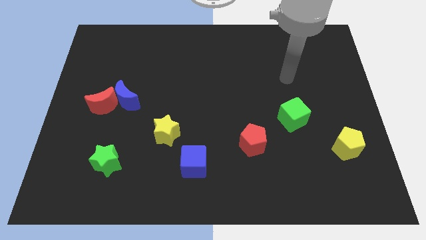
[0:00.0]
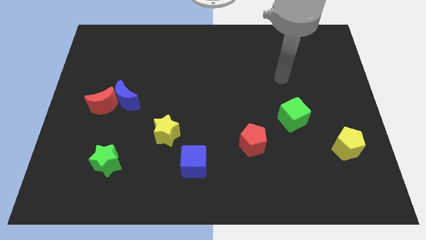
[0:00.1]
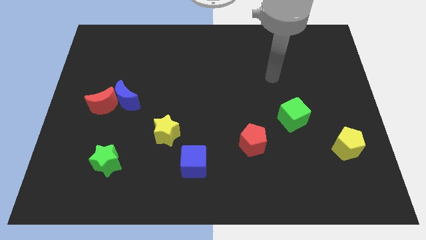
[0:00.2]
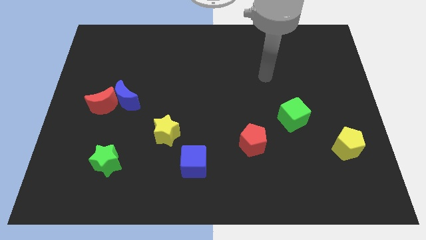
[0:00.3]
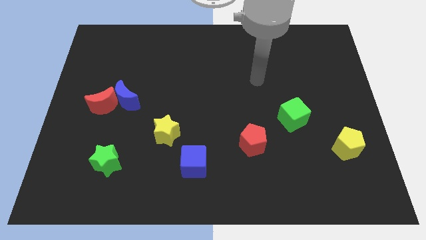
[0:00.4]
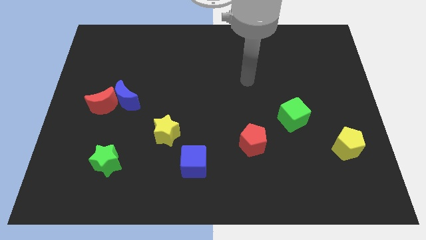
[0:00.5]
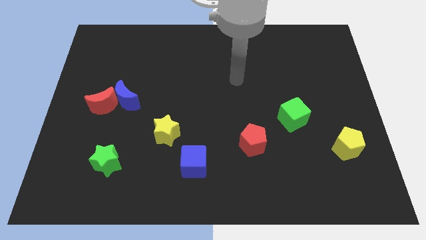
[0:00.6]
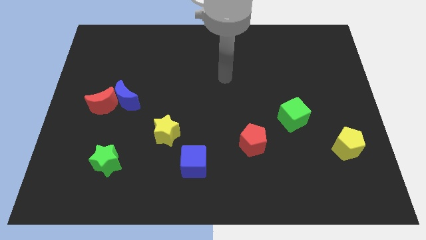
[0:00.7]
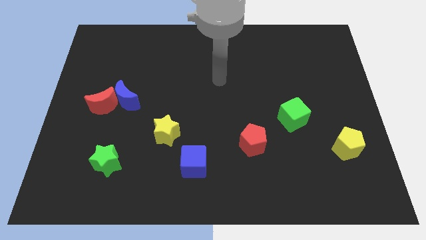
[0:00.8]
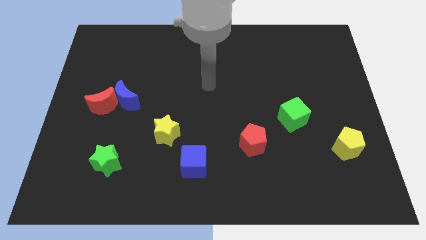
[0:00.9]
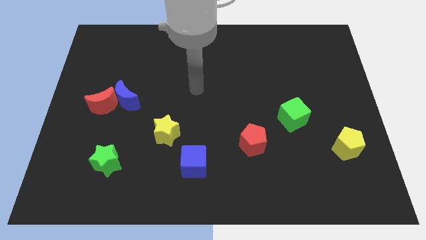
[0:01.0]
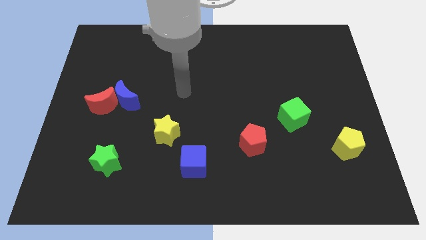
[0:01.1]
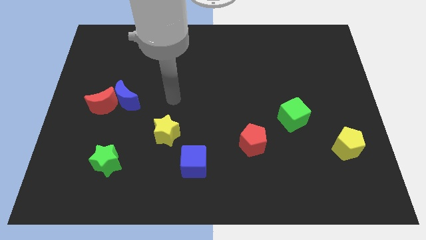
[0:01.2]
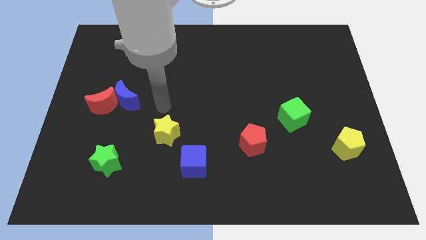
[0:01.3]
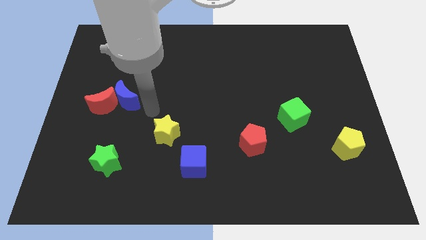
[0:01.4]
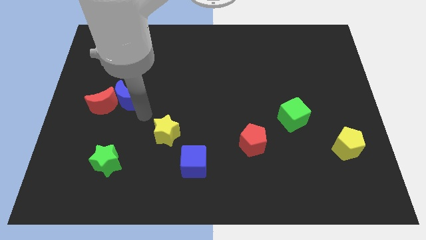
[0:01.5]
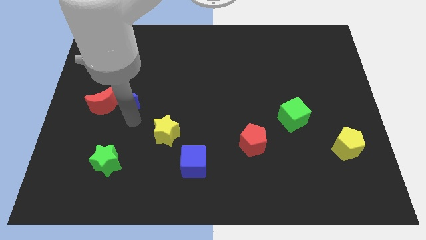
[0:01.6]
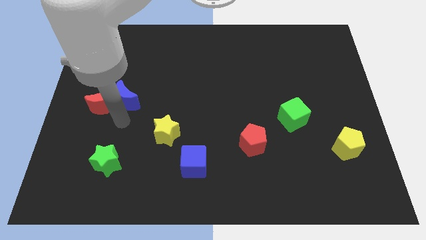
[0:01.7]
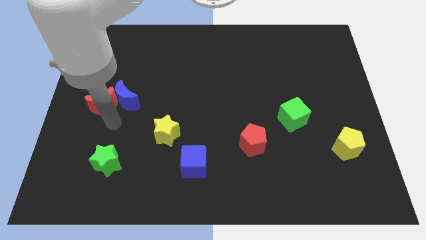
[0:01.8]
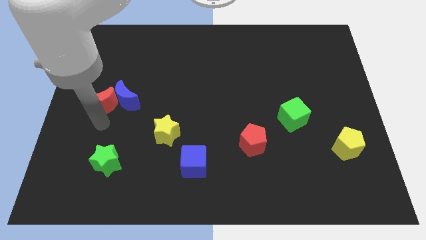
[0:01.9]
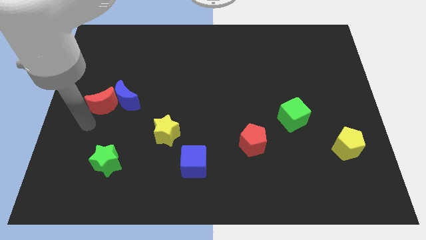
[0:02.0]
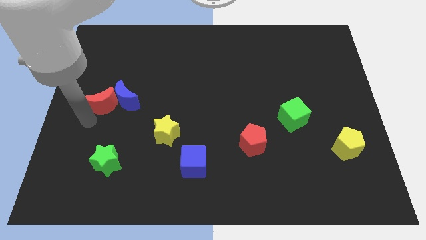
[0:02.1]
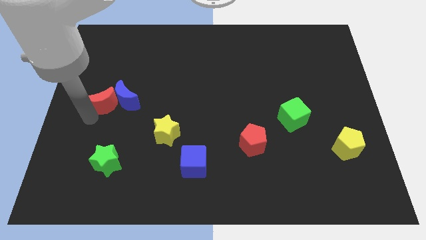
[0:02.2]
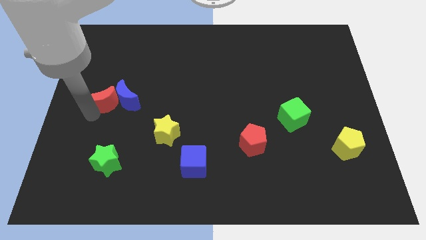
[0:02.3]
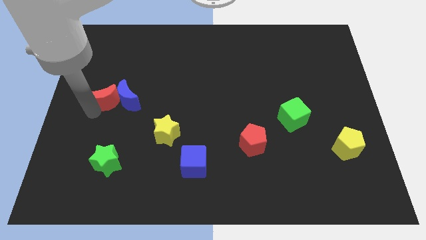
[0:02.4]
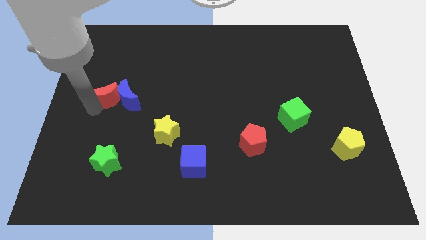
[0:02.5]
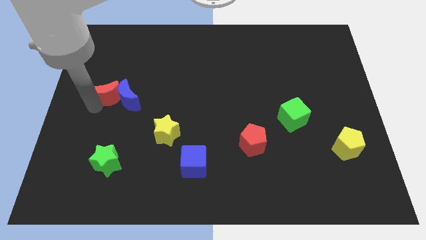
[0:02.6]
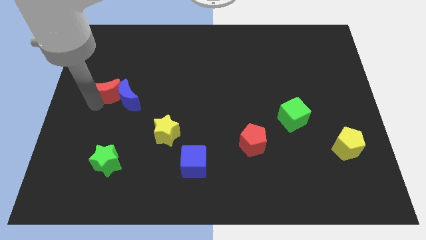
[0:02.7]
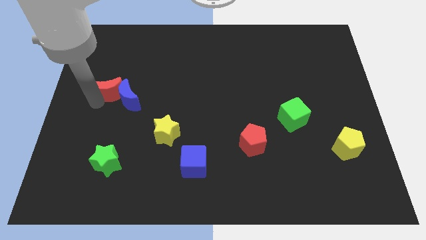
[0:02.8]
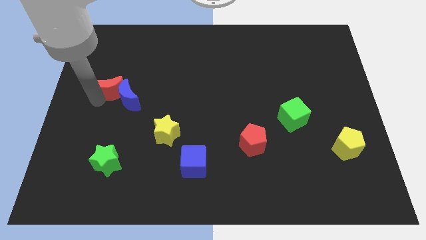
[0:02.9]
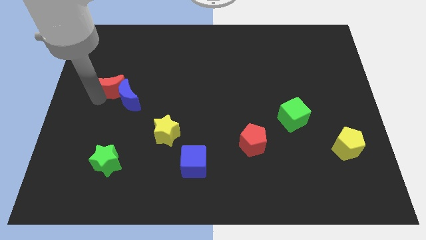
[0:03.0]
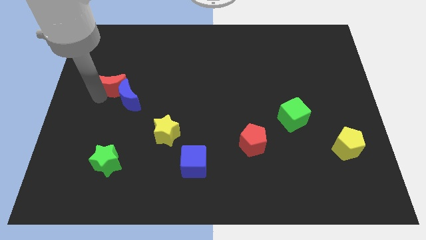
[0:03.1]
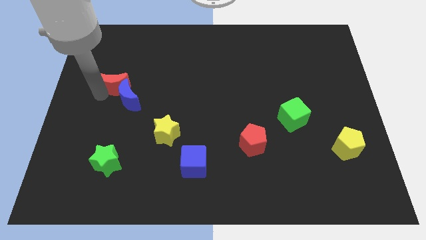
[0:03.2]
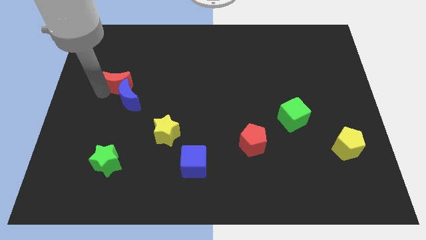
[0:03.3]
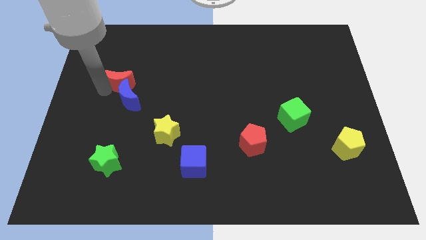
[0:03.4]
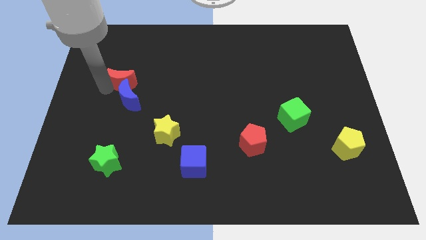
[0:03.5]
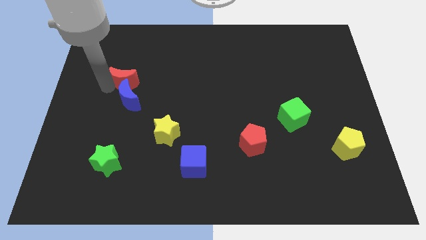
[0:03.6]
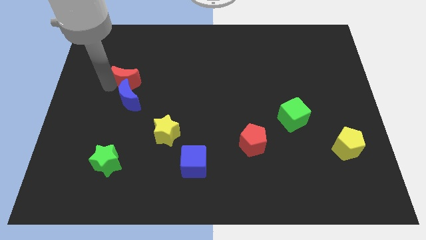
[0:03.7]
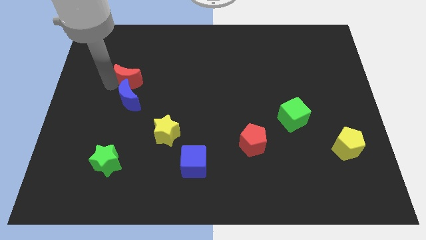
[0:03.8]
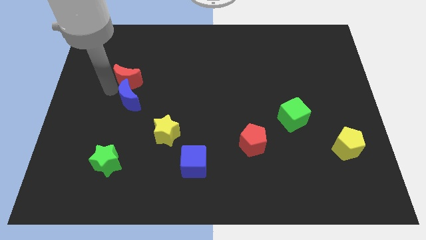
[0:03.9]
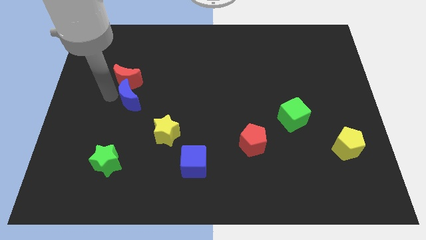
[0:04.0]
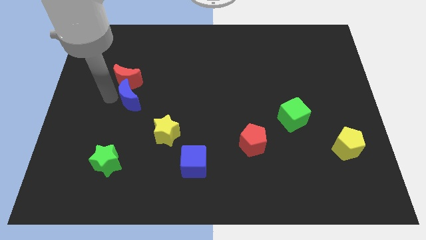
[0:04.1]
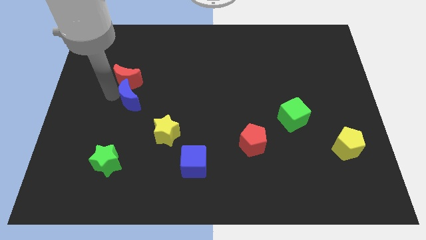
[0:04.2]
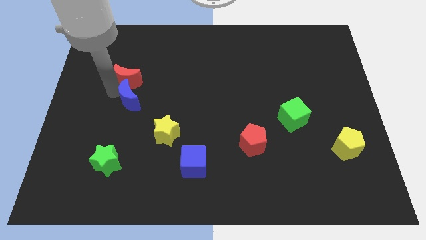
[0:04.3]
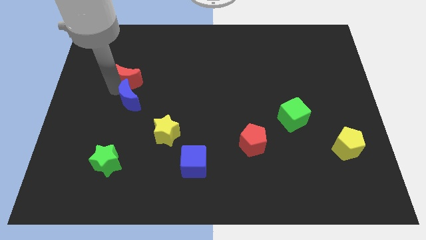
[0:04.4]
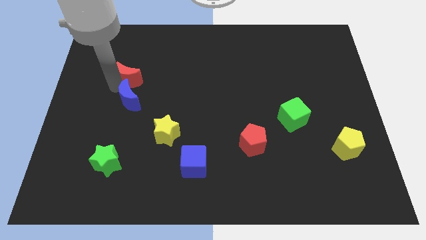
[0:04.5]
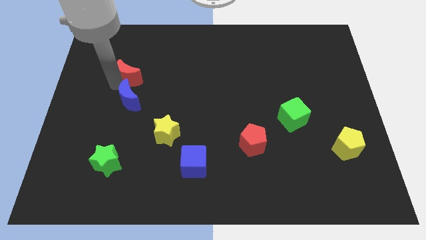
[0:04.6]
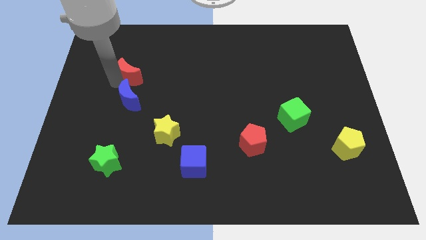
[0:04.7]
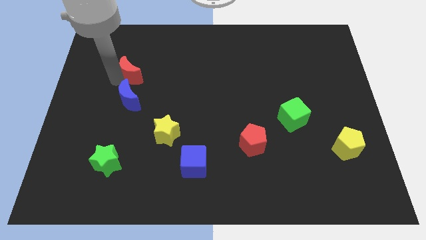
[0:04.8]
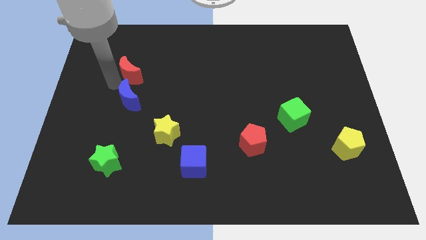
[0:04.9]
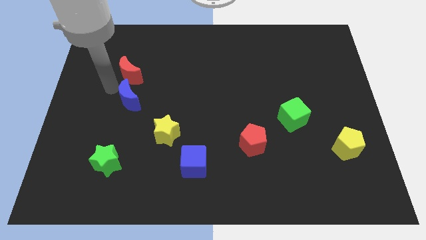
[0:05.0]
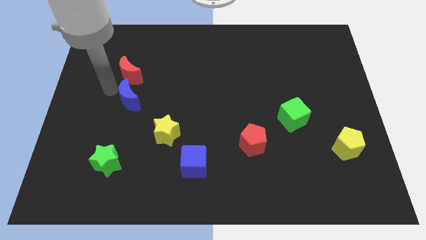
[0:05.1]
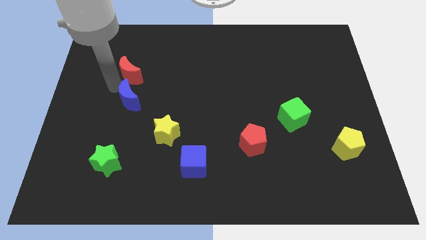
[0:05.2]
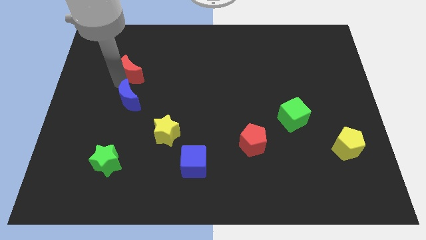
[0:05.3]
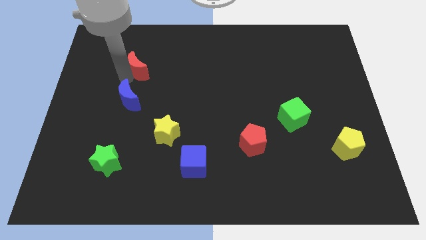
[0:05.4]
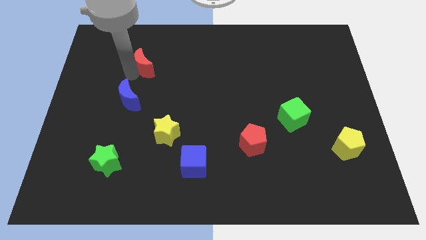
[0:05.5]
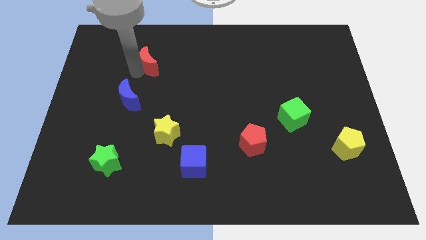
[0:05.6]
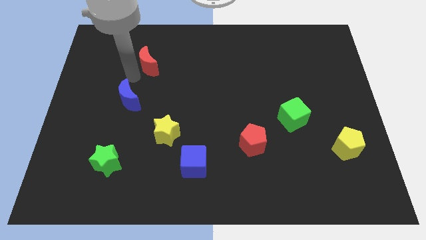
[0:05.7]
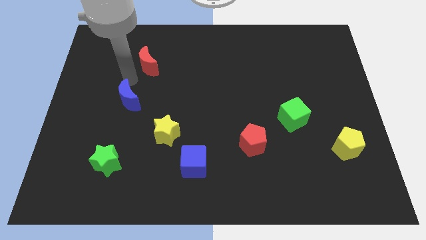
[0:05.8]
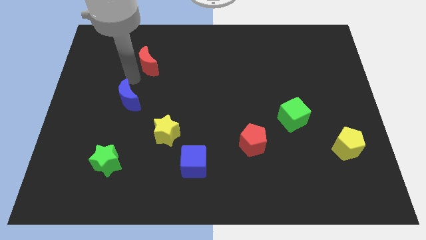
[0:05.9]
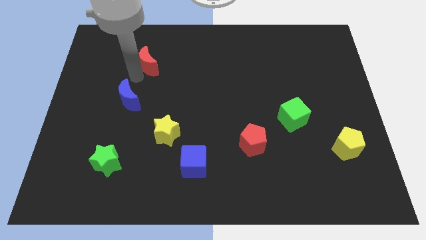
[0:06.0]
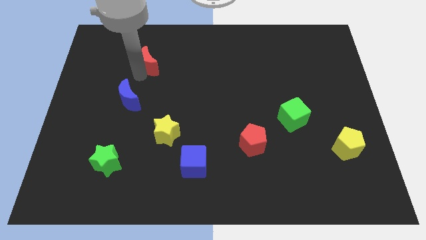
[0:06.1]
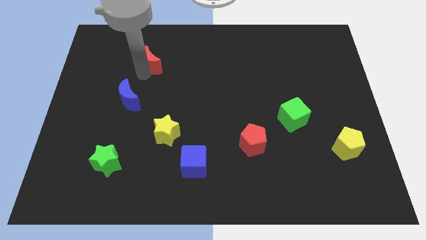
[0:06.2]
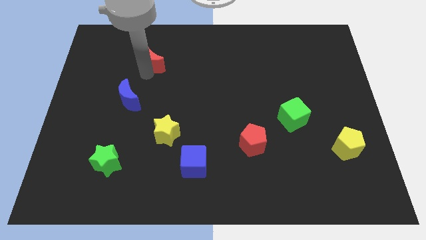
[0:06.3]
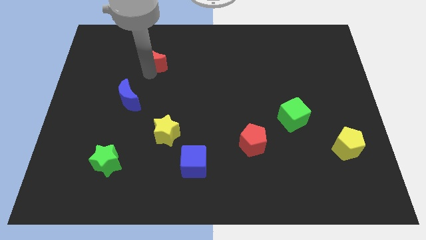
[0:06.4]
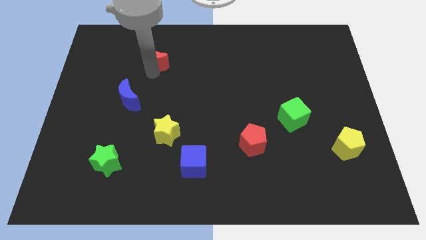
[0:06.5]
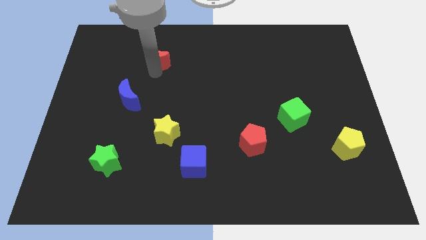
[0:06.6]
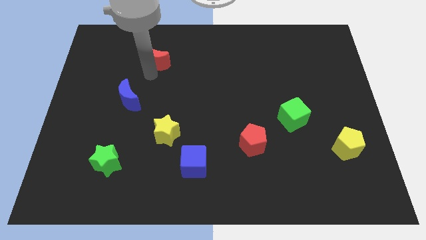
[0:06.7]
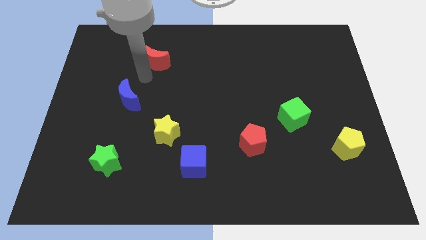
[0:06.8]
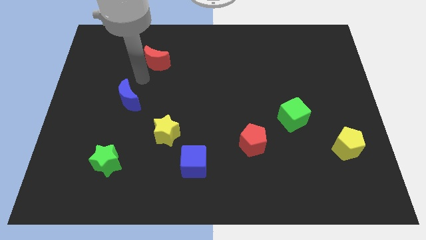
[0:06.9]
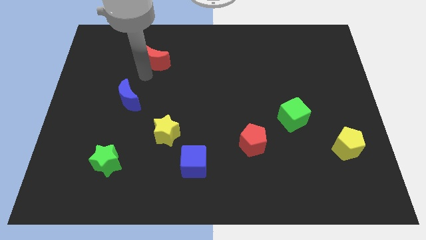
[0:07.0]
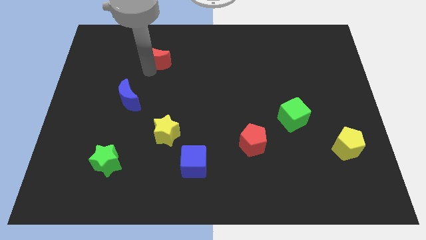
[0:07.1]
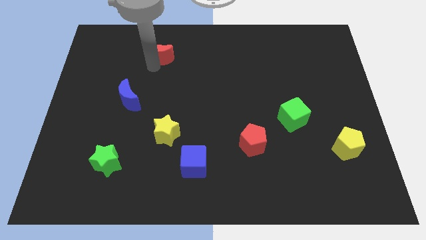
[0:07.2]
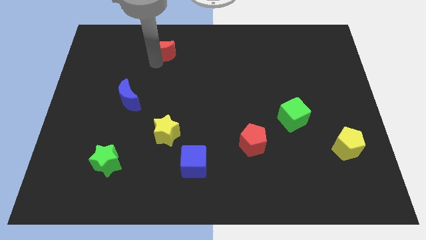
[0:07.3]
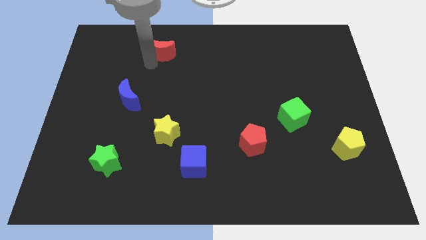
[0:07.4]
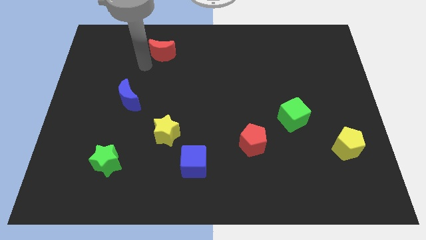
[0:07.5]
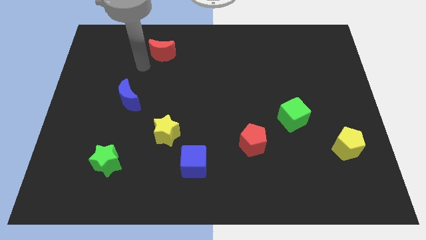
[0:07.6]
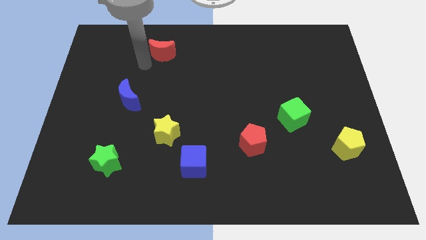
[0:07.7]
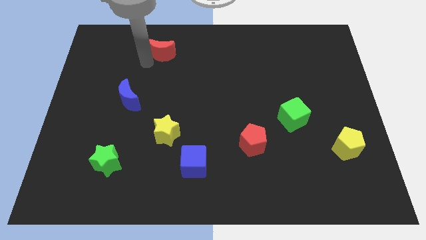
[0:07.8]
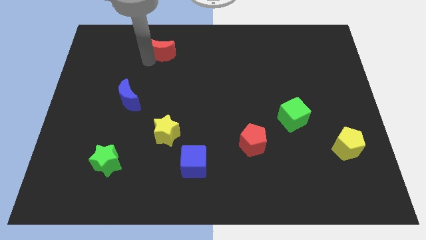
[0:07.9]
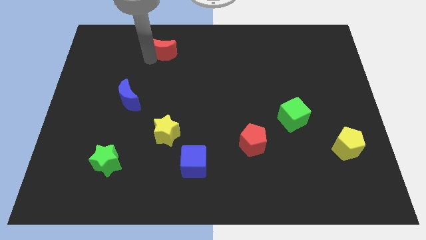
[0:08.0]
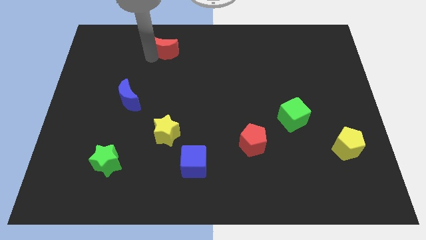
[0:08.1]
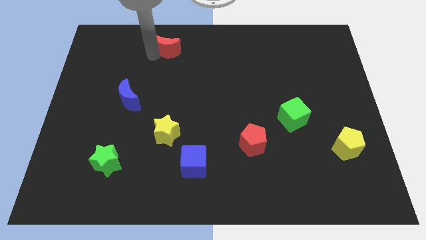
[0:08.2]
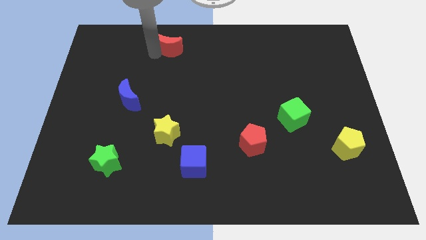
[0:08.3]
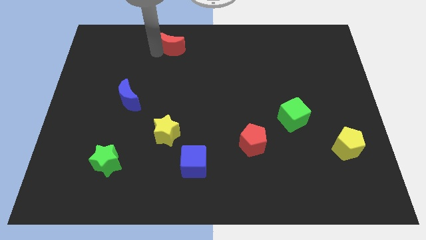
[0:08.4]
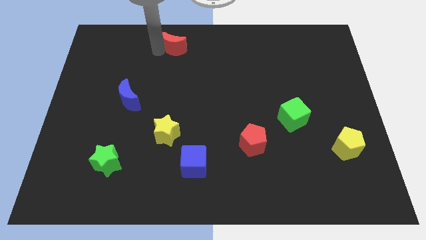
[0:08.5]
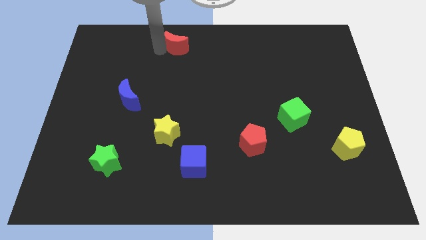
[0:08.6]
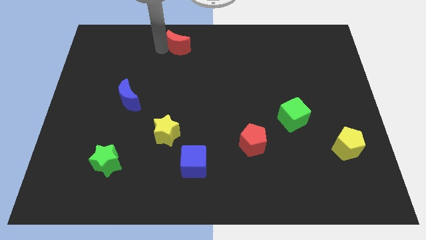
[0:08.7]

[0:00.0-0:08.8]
move the red moon to the towards your base
